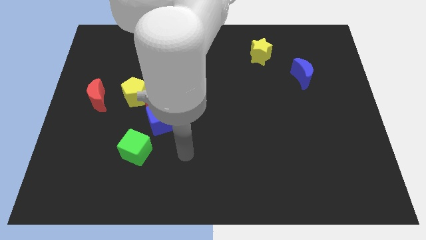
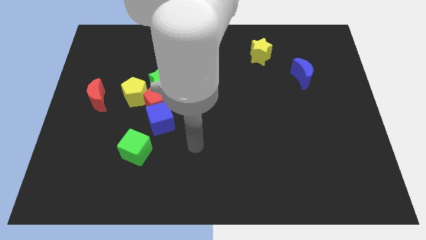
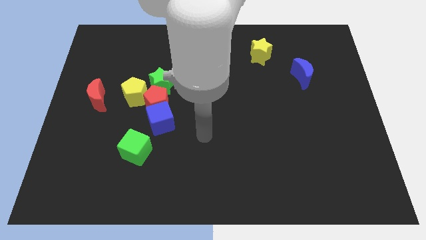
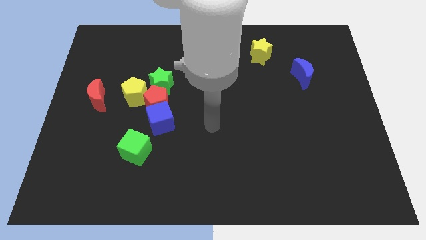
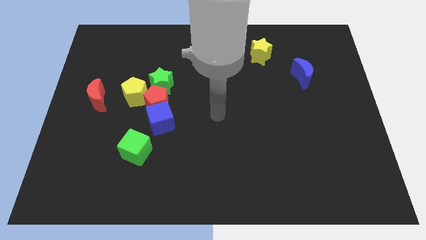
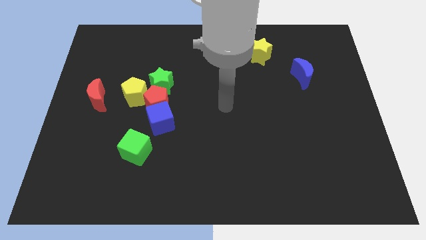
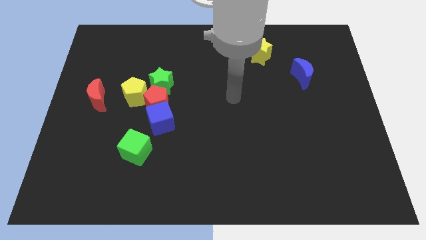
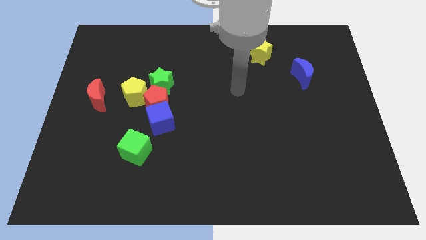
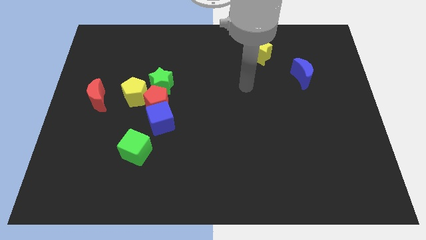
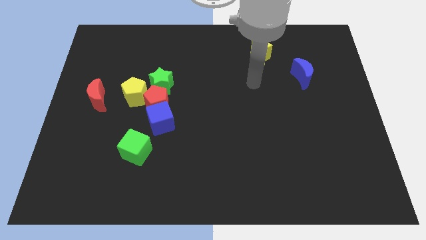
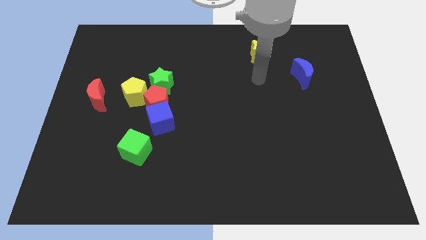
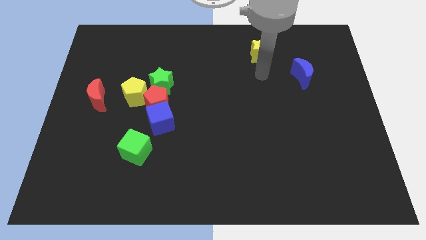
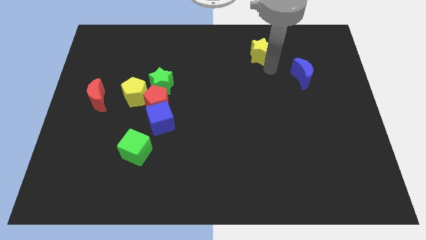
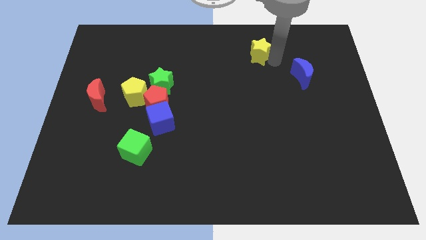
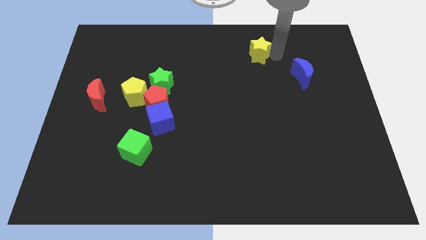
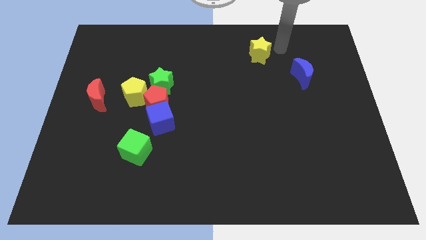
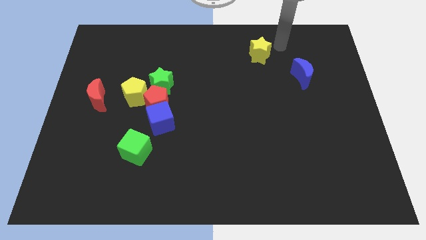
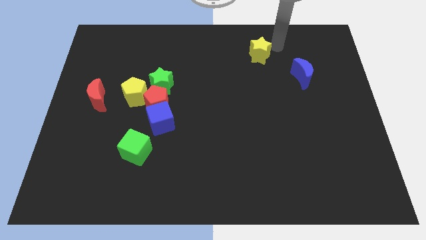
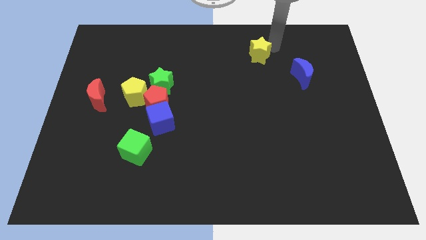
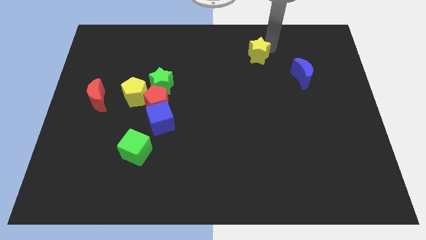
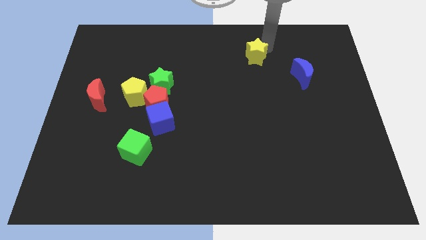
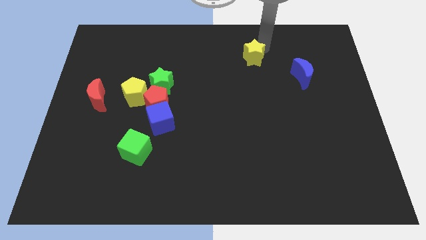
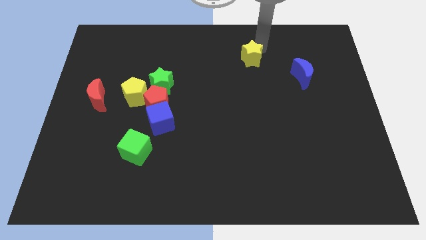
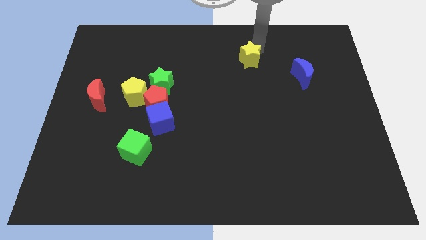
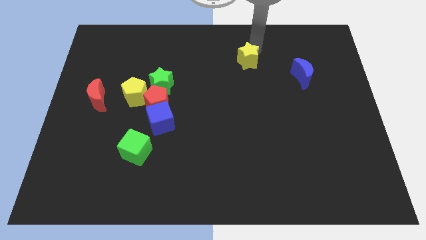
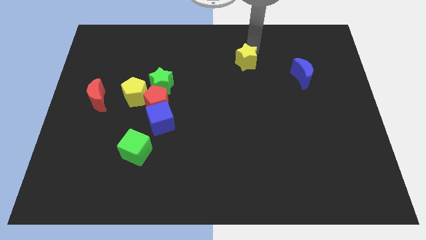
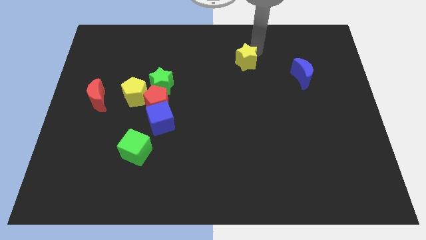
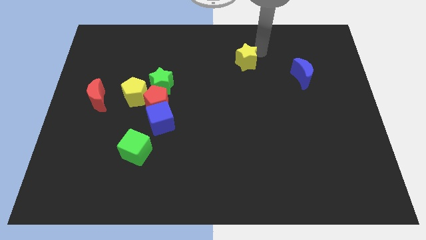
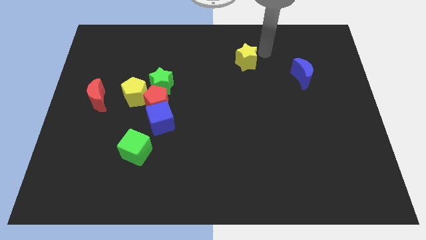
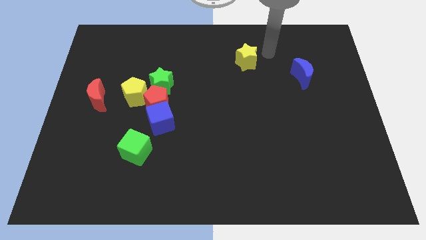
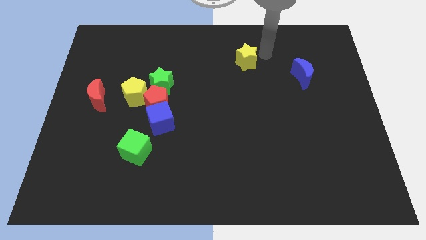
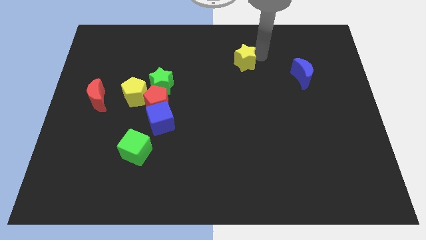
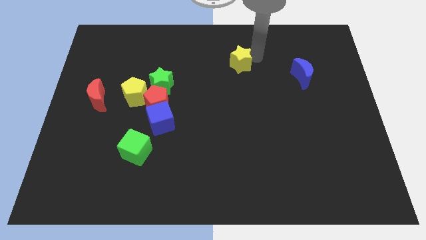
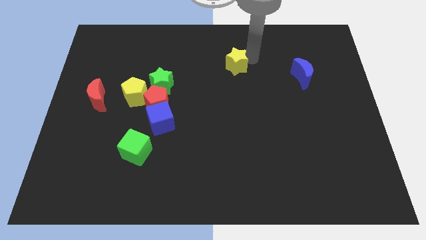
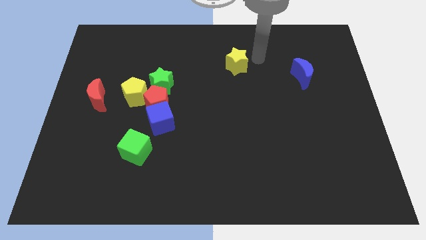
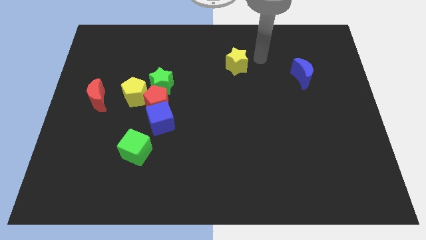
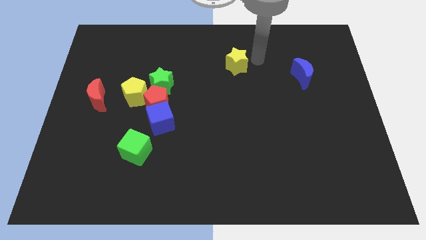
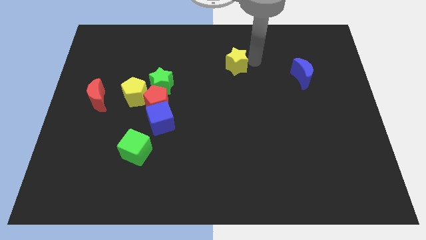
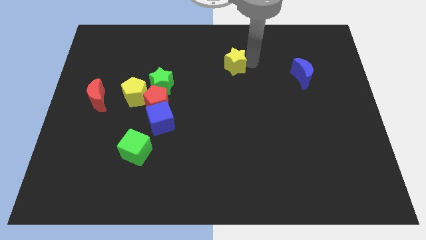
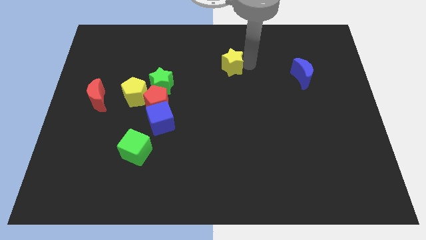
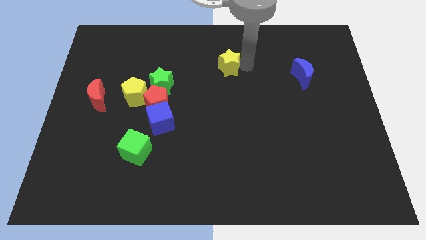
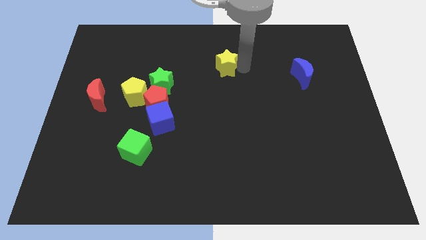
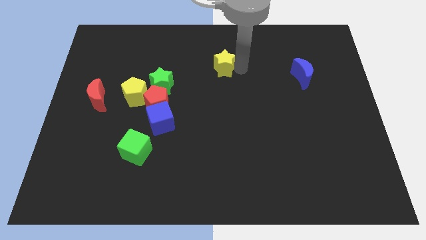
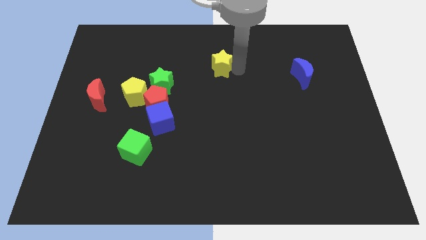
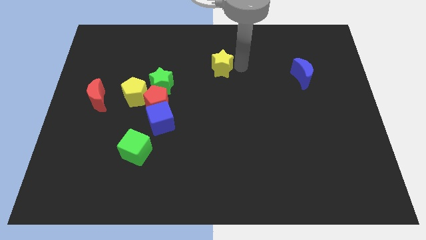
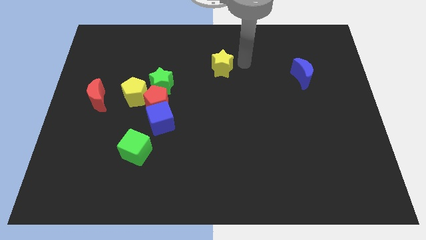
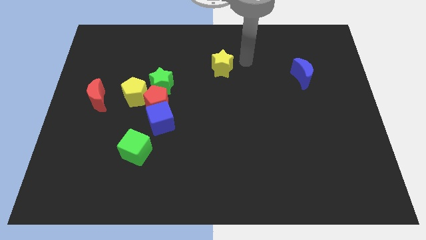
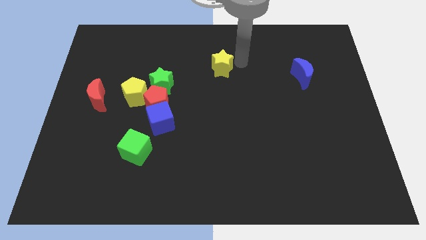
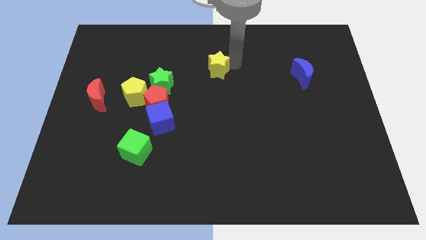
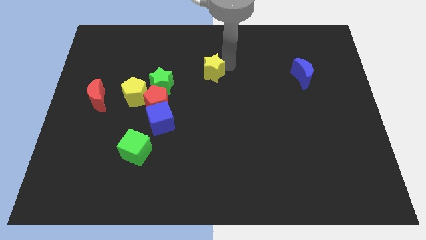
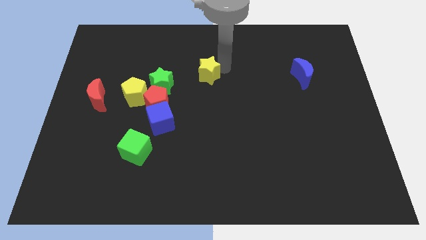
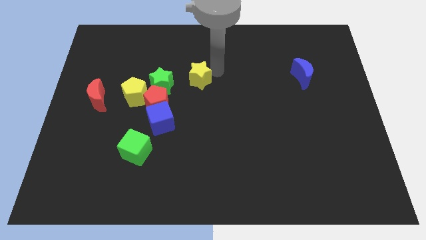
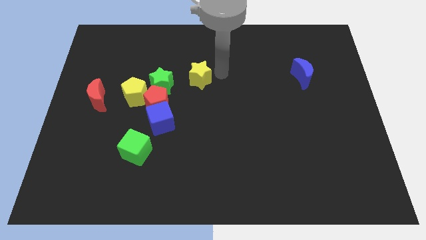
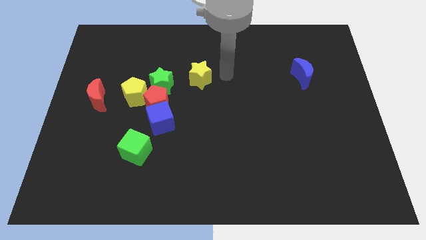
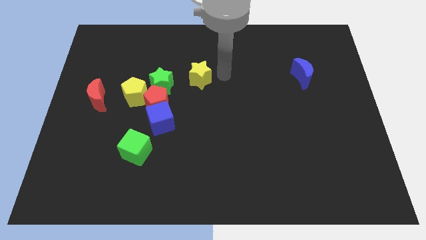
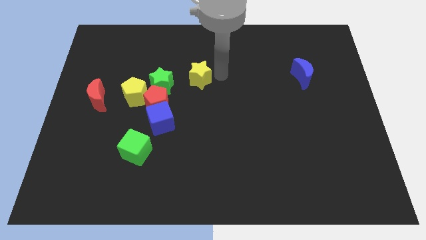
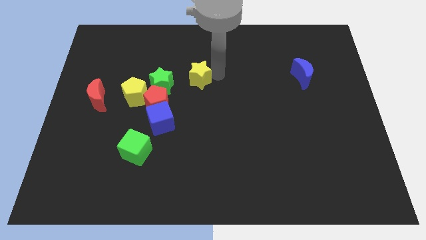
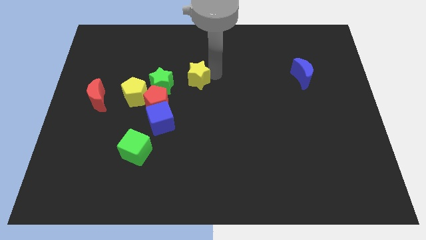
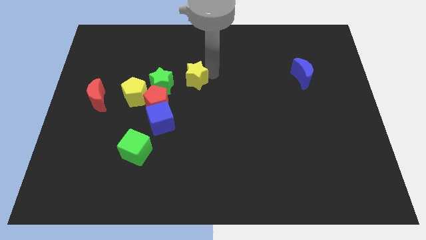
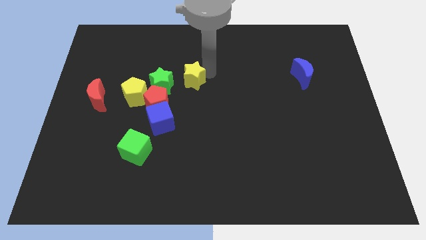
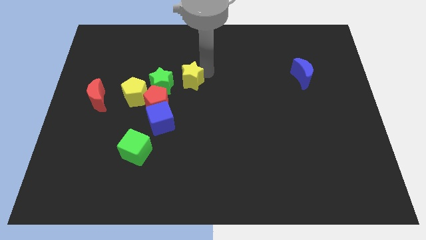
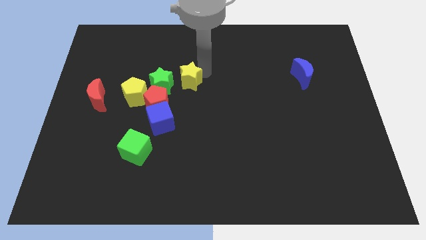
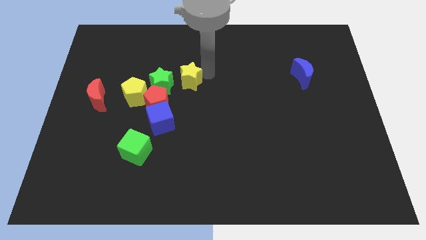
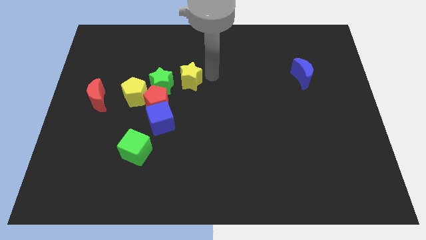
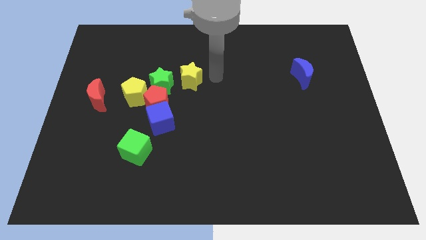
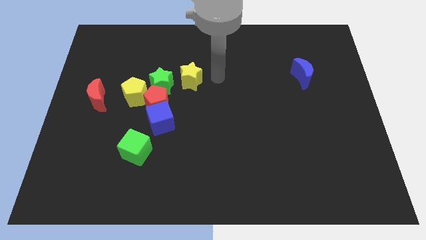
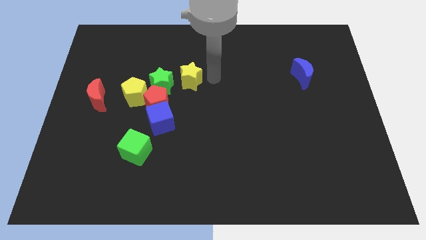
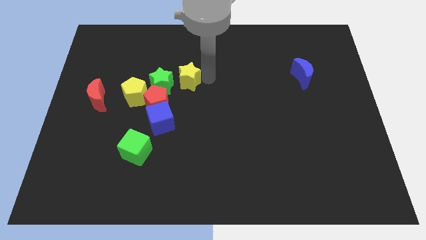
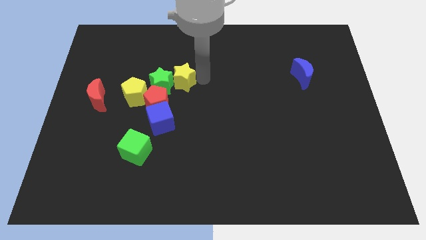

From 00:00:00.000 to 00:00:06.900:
move the yellow star close to the green star
